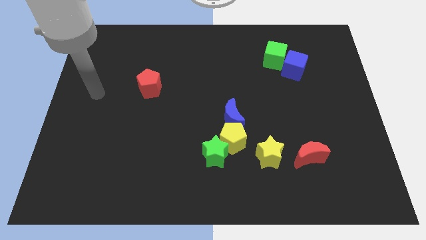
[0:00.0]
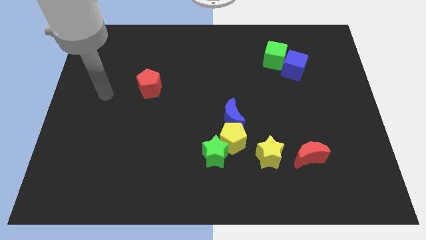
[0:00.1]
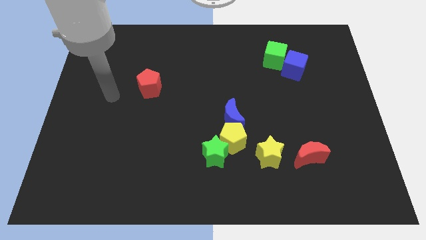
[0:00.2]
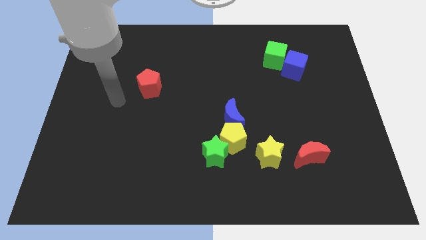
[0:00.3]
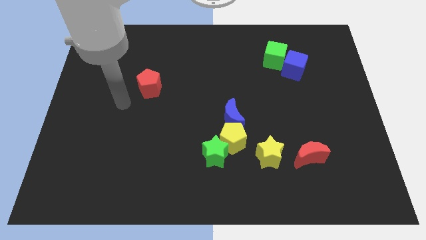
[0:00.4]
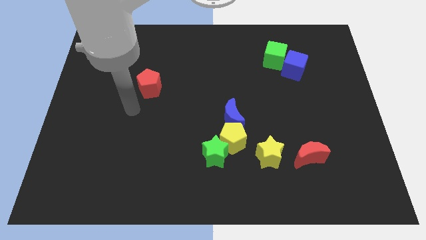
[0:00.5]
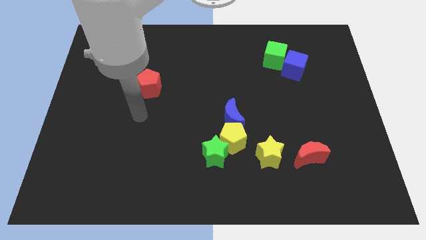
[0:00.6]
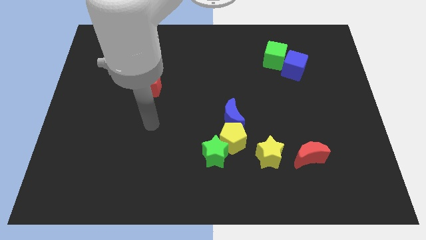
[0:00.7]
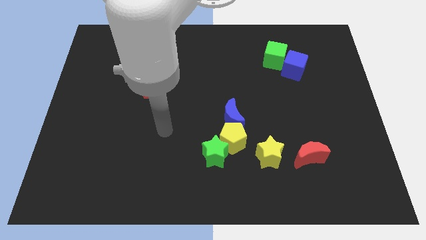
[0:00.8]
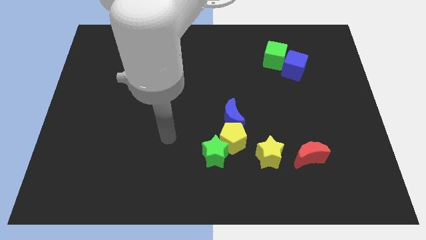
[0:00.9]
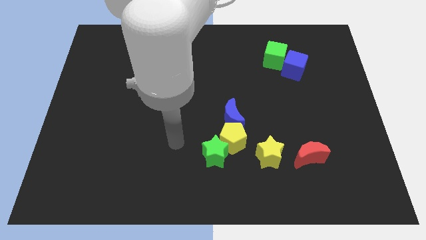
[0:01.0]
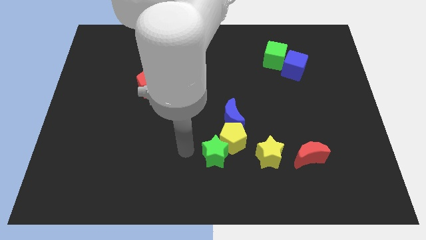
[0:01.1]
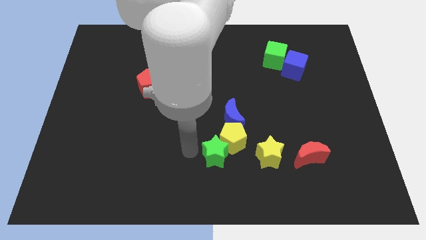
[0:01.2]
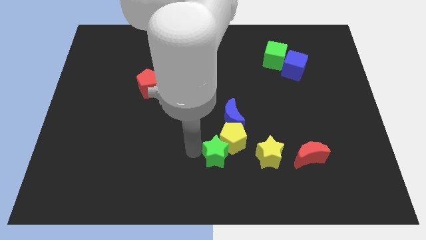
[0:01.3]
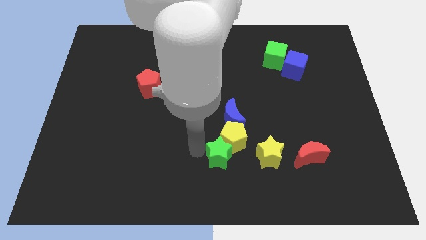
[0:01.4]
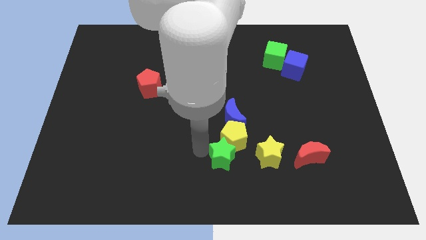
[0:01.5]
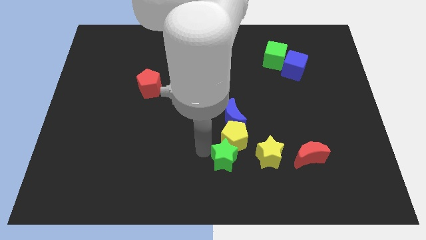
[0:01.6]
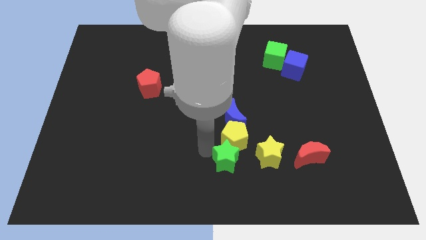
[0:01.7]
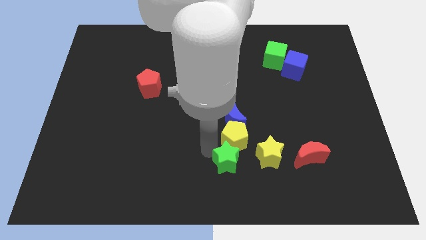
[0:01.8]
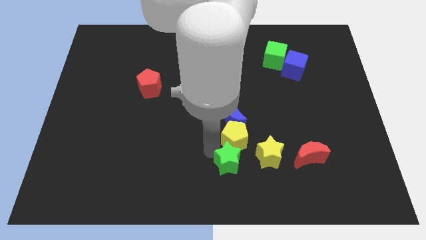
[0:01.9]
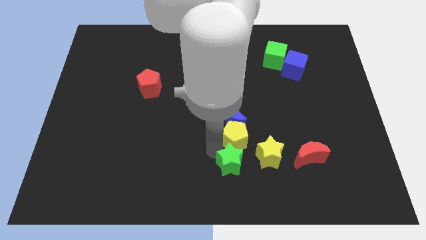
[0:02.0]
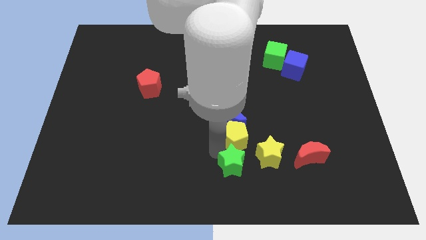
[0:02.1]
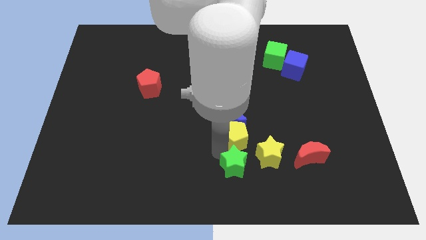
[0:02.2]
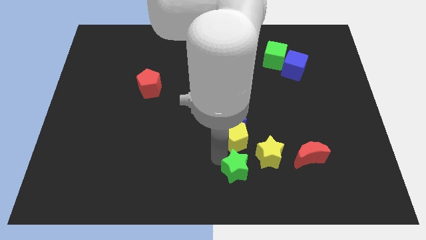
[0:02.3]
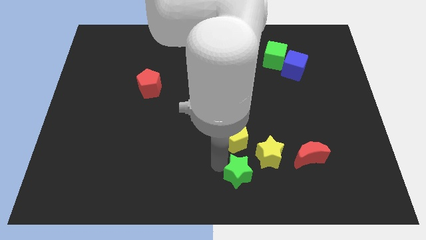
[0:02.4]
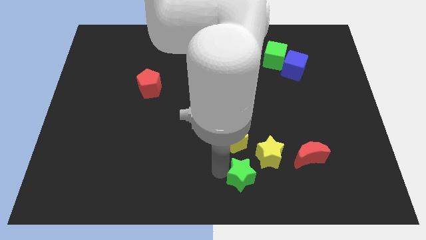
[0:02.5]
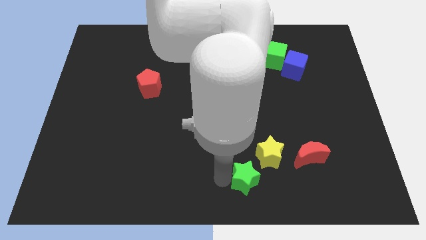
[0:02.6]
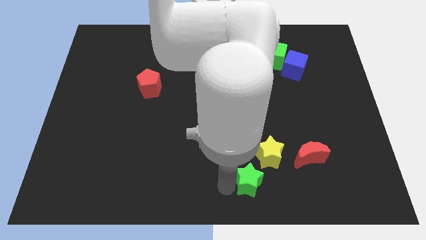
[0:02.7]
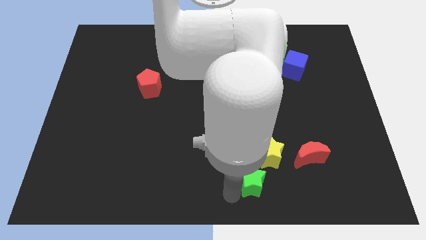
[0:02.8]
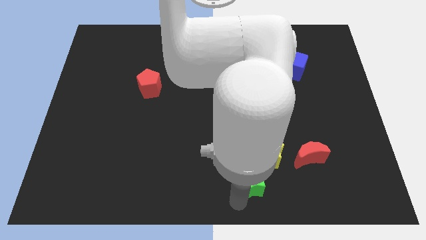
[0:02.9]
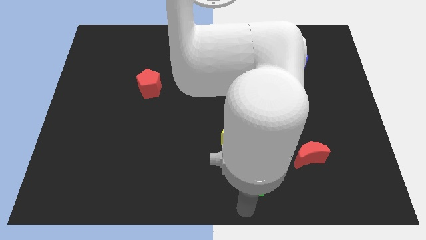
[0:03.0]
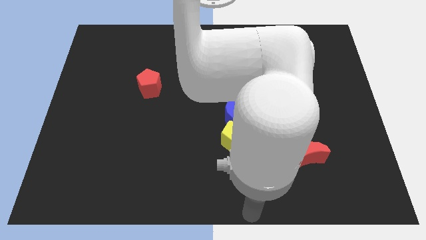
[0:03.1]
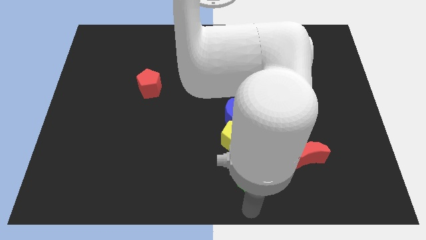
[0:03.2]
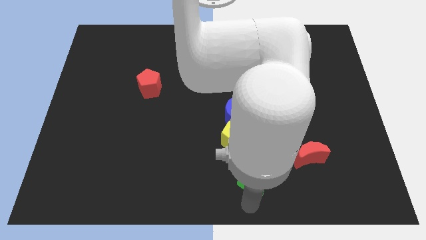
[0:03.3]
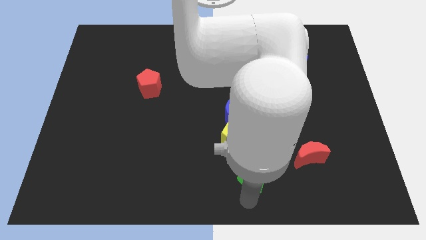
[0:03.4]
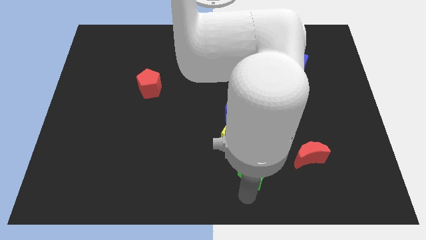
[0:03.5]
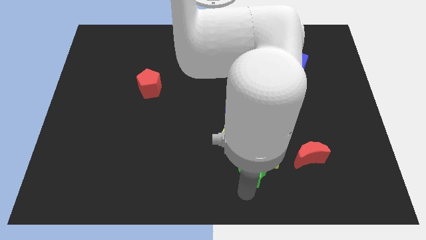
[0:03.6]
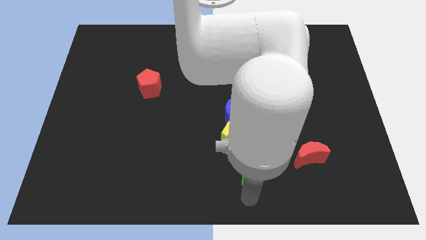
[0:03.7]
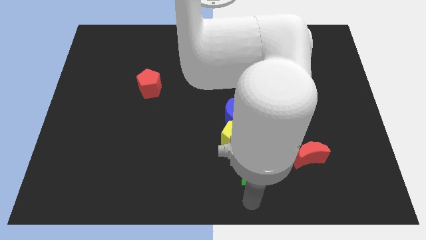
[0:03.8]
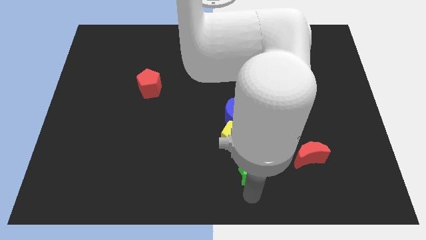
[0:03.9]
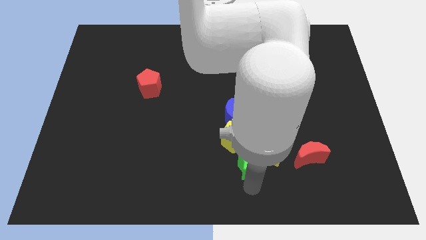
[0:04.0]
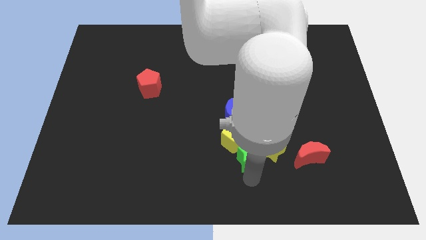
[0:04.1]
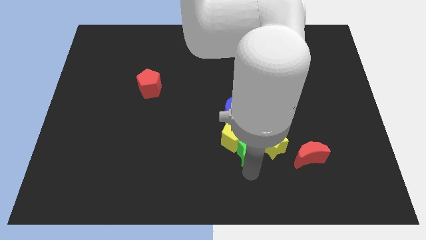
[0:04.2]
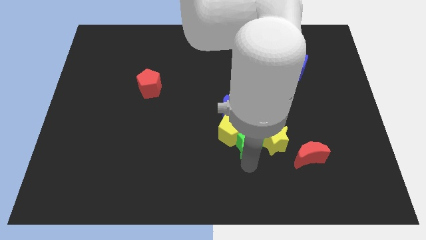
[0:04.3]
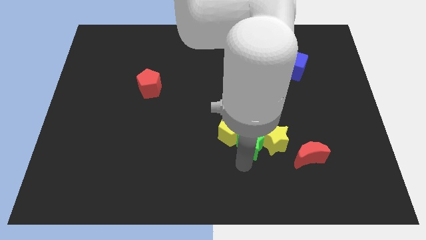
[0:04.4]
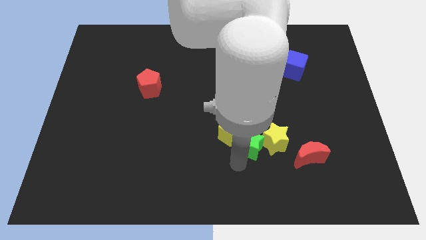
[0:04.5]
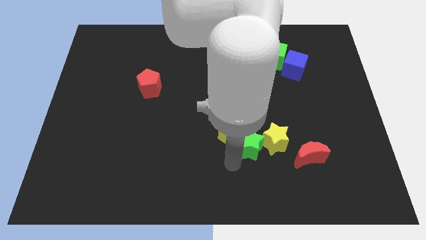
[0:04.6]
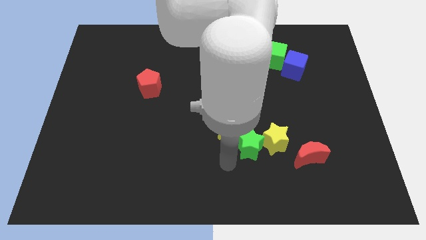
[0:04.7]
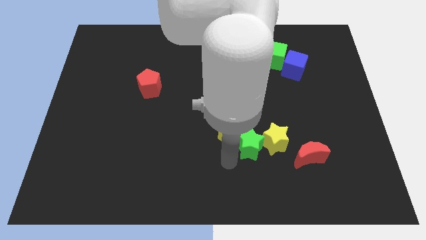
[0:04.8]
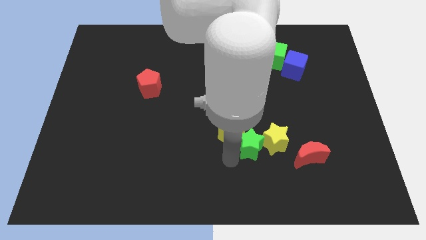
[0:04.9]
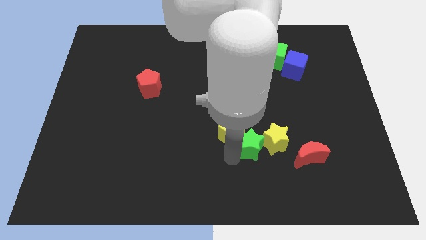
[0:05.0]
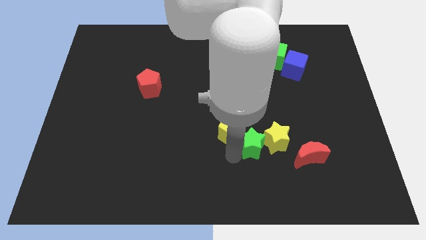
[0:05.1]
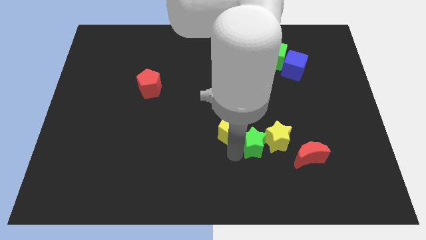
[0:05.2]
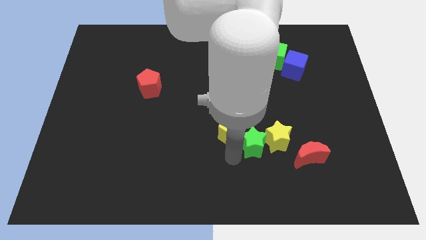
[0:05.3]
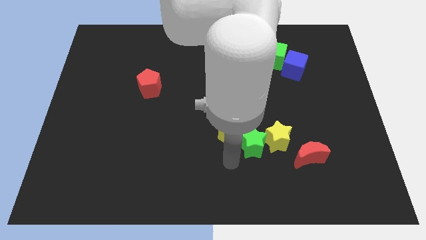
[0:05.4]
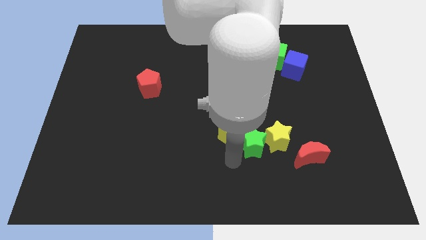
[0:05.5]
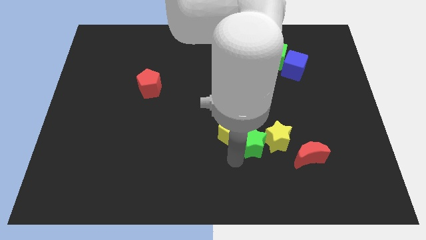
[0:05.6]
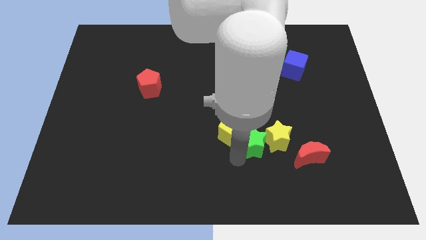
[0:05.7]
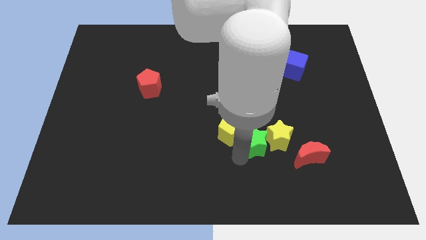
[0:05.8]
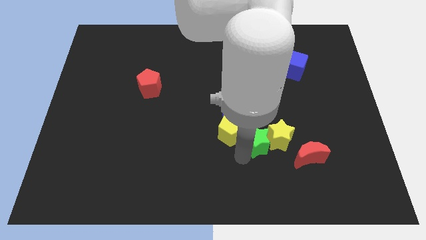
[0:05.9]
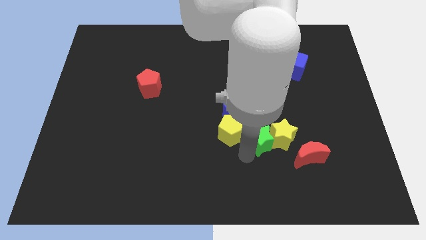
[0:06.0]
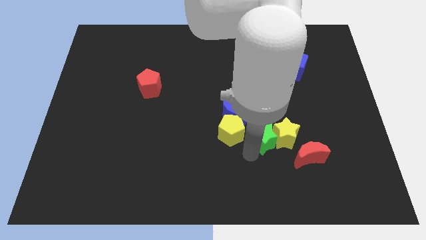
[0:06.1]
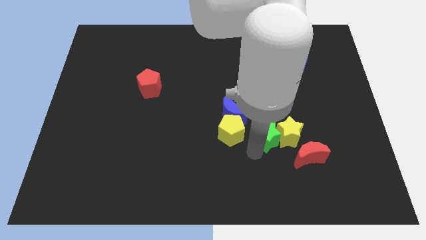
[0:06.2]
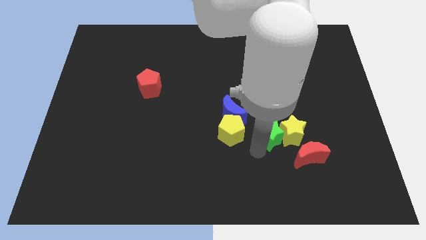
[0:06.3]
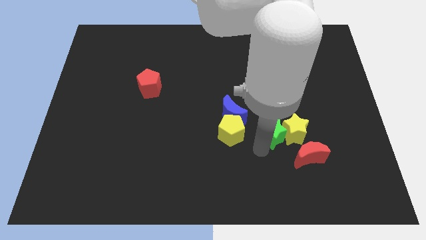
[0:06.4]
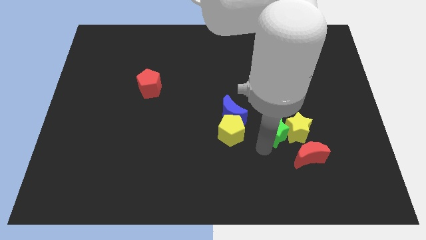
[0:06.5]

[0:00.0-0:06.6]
put the green star just right of the blue moon
